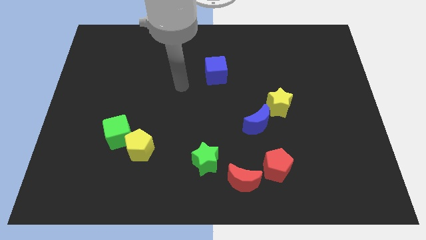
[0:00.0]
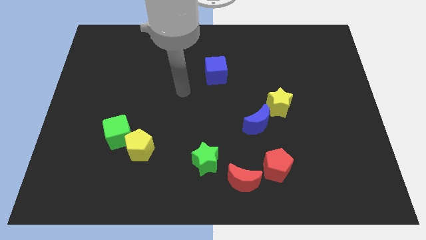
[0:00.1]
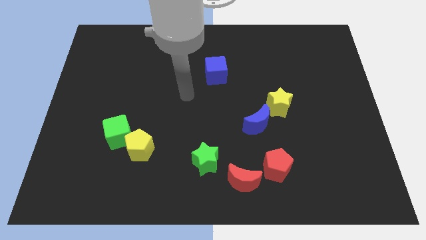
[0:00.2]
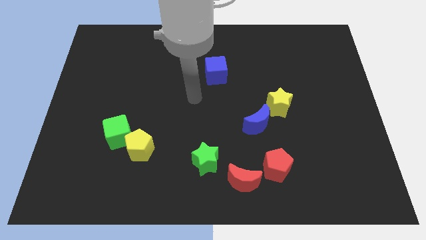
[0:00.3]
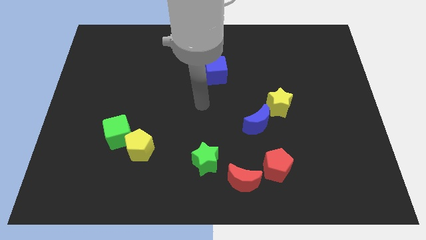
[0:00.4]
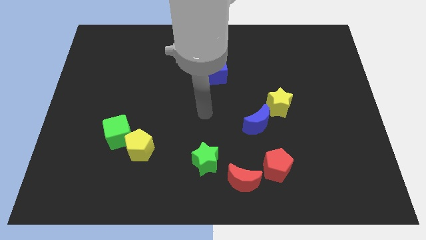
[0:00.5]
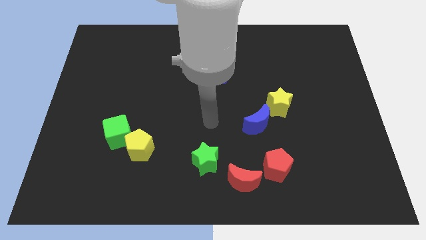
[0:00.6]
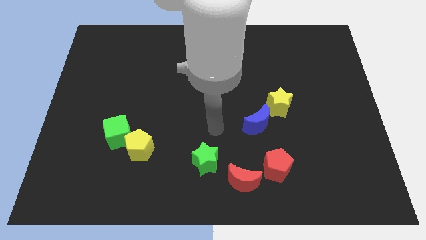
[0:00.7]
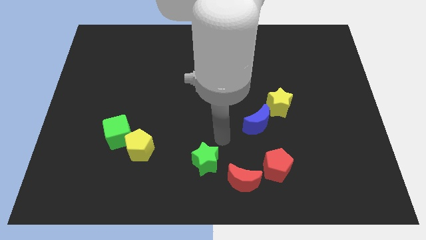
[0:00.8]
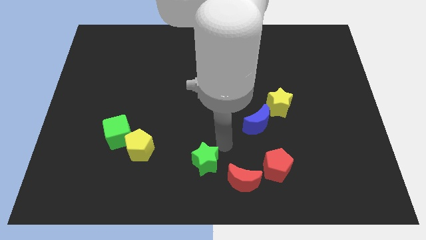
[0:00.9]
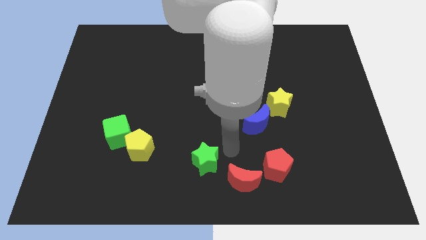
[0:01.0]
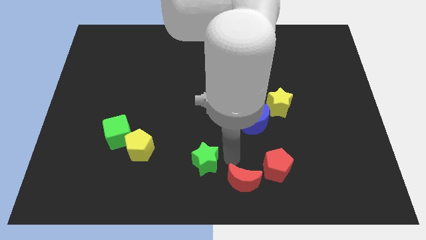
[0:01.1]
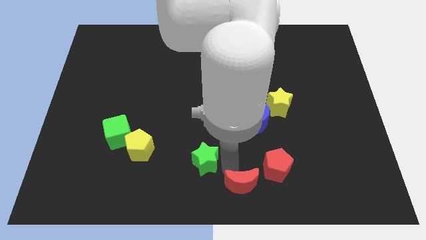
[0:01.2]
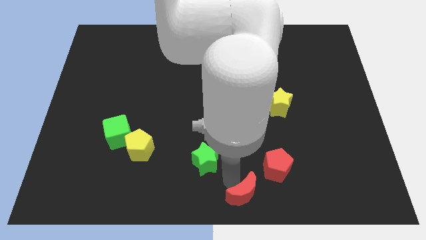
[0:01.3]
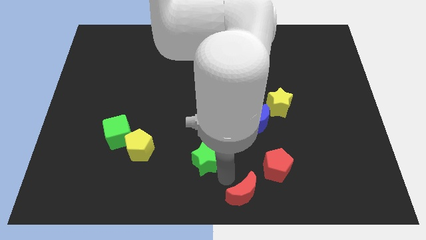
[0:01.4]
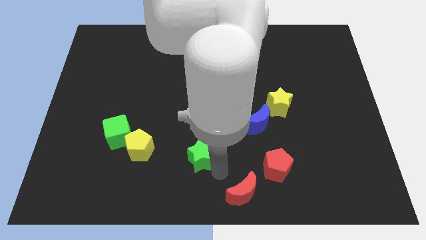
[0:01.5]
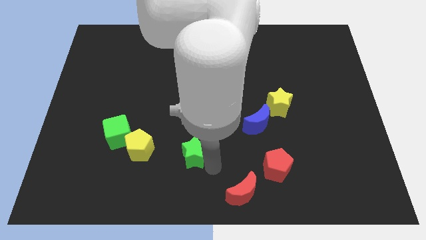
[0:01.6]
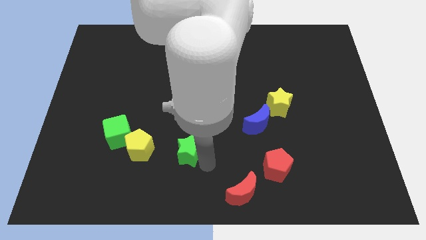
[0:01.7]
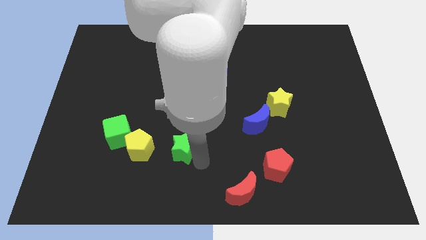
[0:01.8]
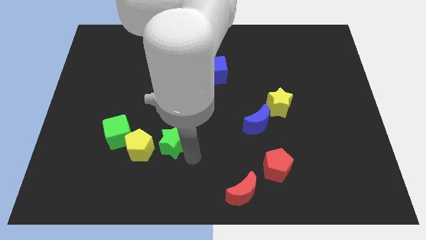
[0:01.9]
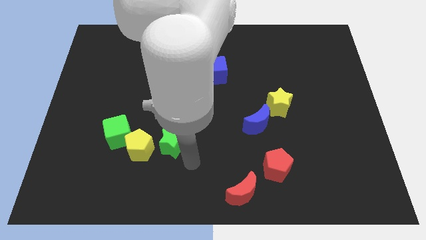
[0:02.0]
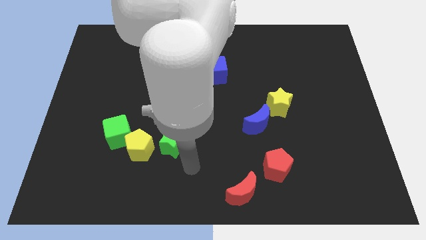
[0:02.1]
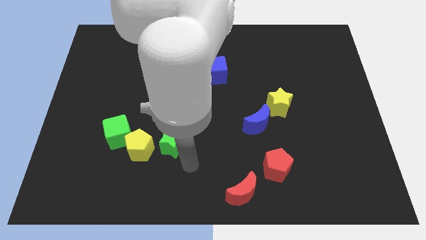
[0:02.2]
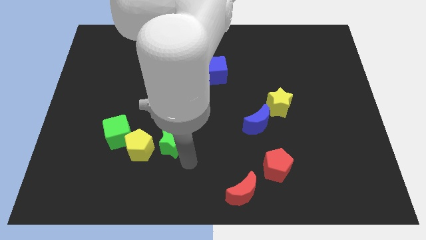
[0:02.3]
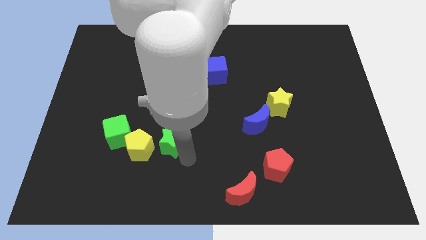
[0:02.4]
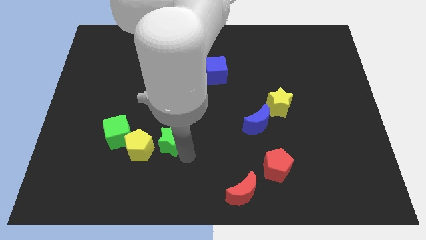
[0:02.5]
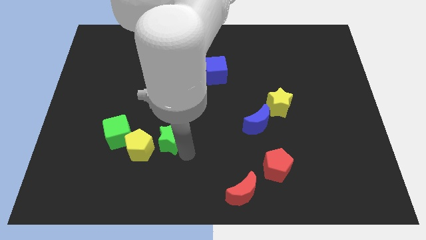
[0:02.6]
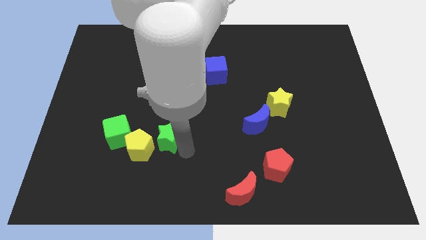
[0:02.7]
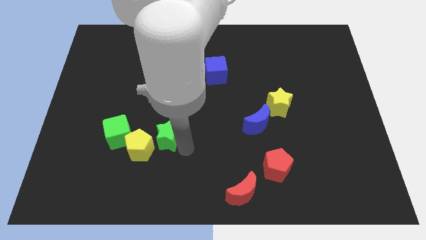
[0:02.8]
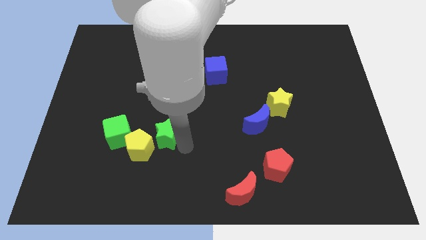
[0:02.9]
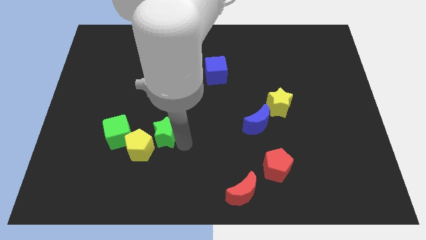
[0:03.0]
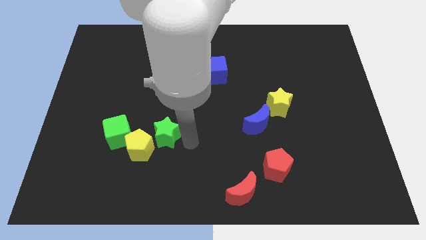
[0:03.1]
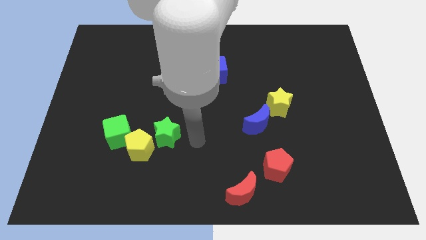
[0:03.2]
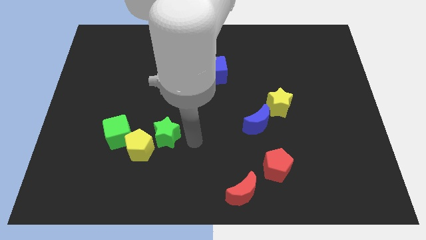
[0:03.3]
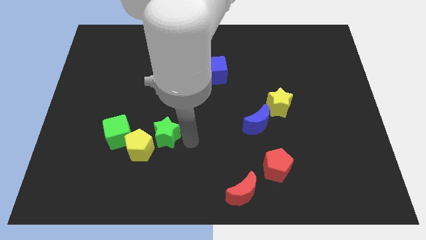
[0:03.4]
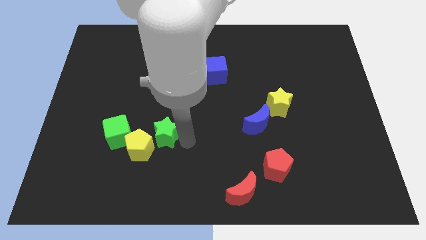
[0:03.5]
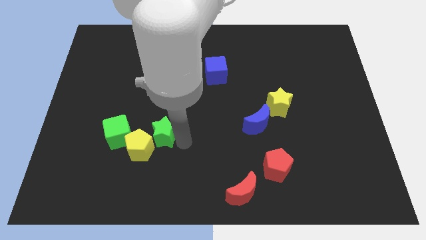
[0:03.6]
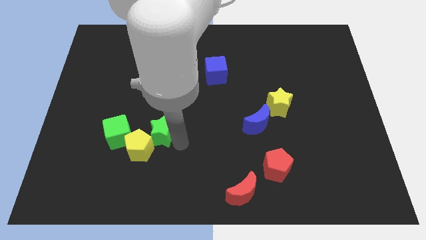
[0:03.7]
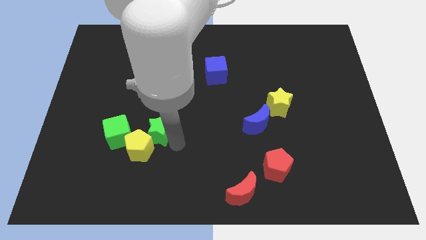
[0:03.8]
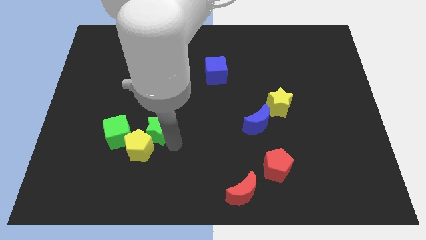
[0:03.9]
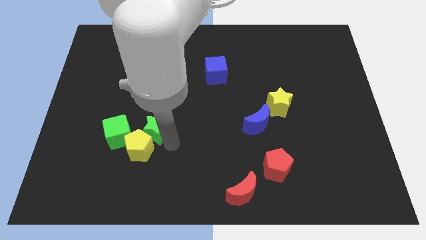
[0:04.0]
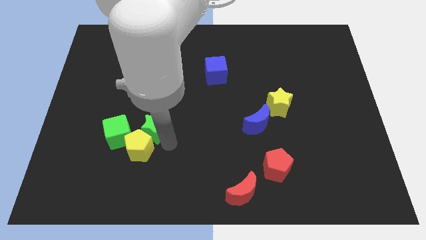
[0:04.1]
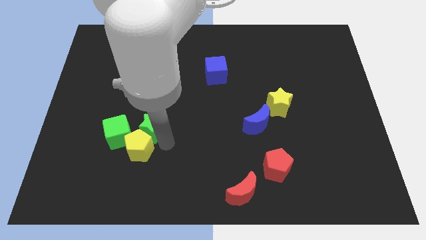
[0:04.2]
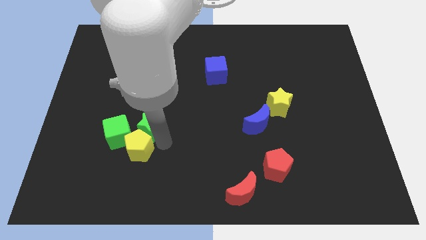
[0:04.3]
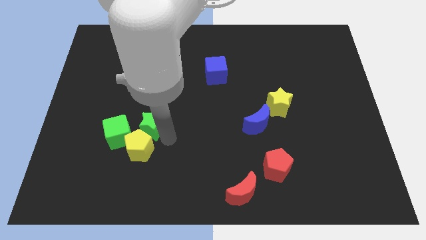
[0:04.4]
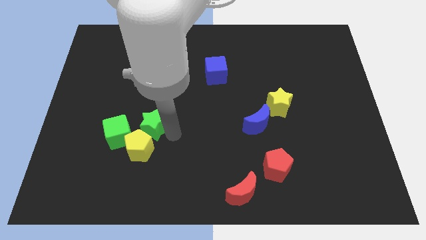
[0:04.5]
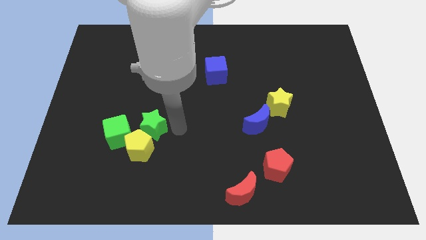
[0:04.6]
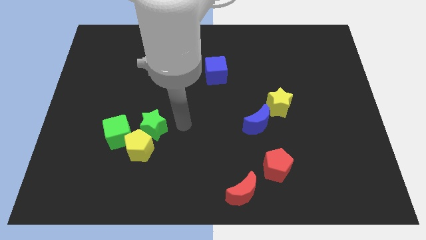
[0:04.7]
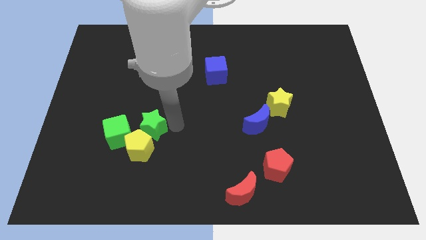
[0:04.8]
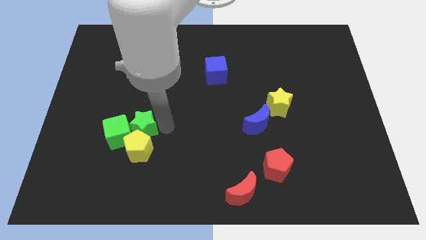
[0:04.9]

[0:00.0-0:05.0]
move the green star to the green cube

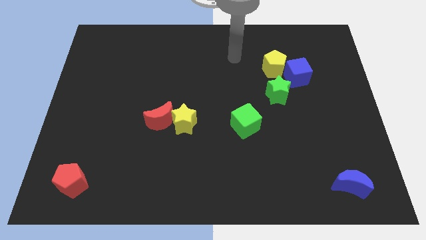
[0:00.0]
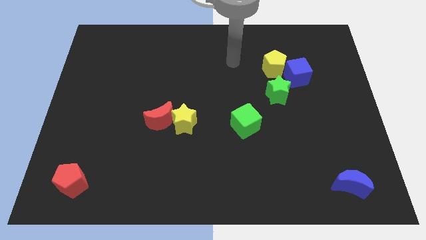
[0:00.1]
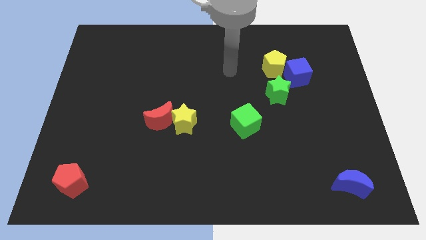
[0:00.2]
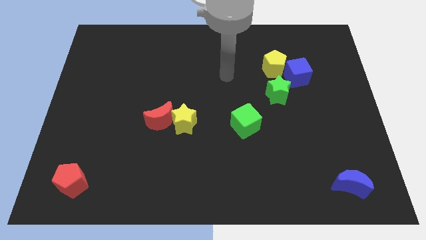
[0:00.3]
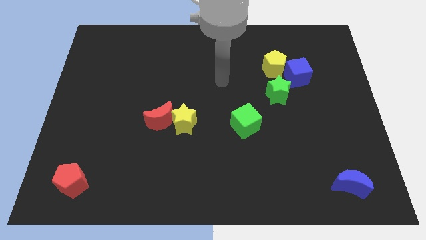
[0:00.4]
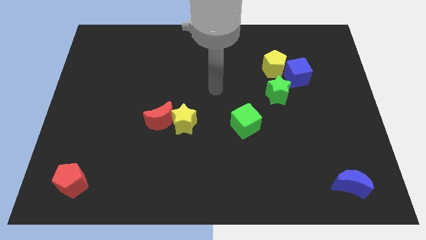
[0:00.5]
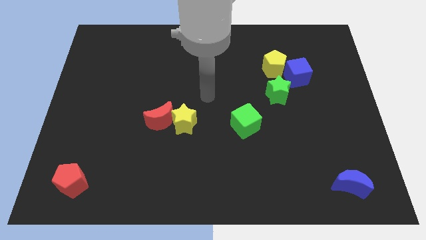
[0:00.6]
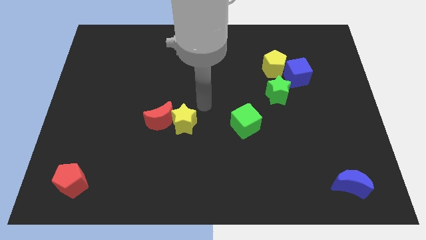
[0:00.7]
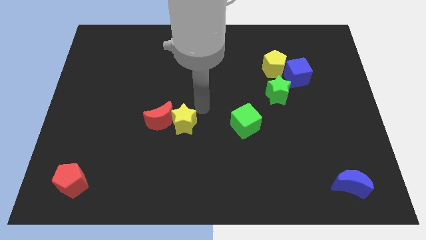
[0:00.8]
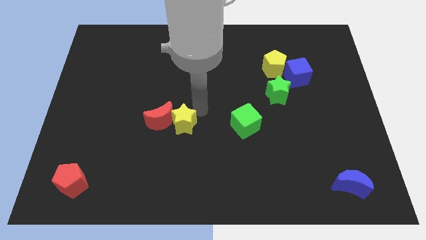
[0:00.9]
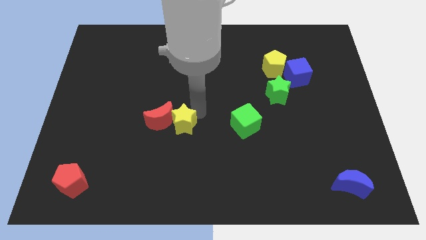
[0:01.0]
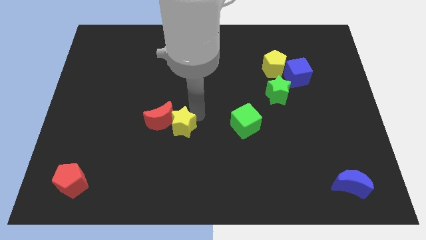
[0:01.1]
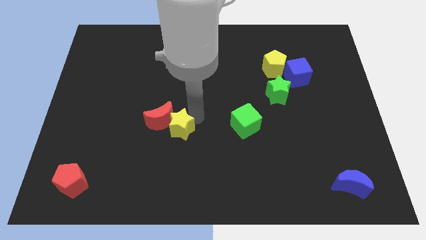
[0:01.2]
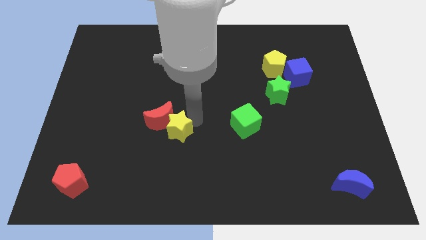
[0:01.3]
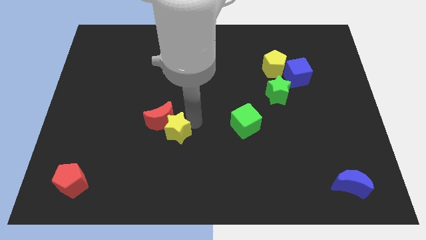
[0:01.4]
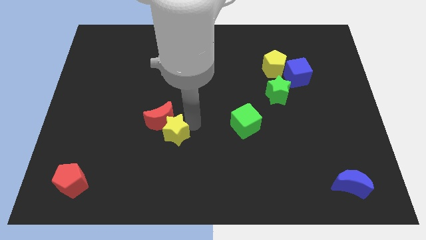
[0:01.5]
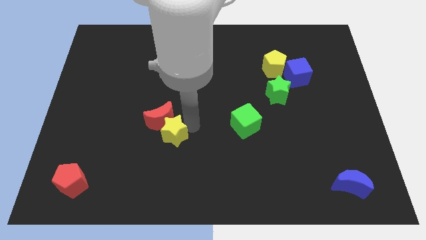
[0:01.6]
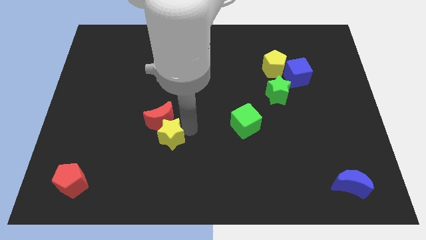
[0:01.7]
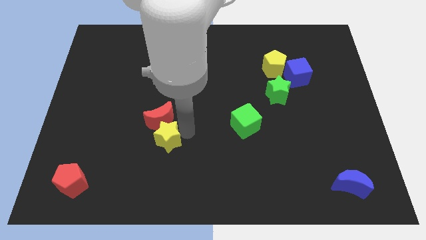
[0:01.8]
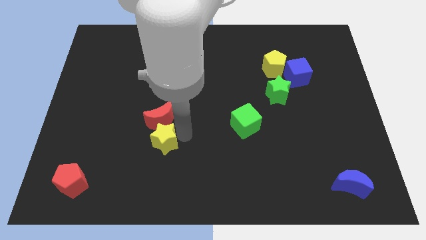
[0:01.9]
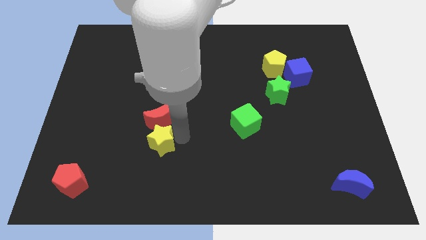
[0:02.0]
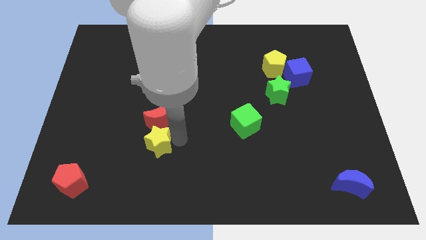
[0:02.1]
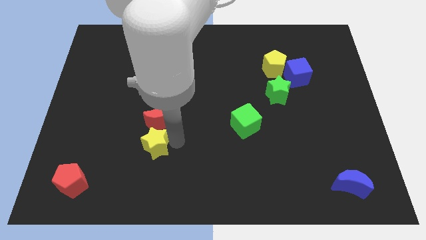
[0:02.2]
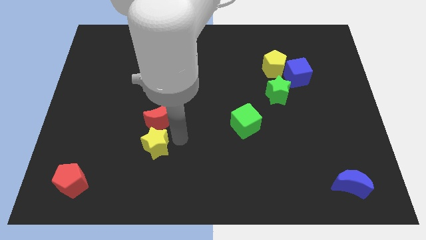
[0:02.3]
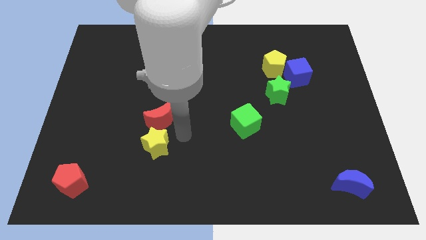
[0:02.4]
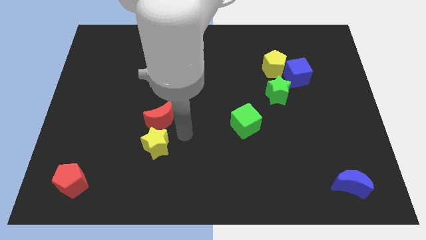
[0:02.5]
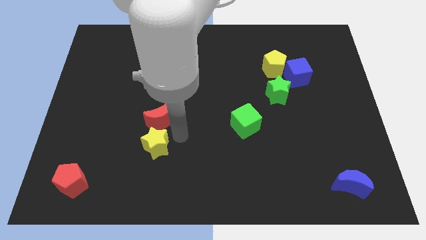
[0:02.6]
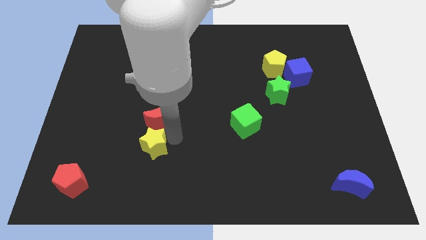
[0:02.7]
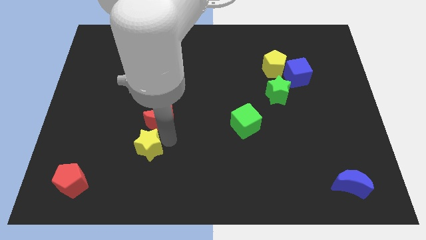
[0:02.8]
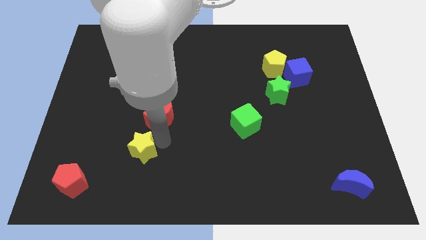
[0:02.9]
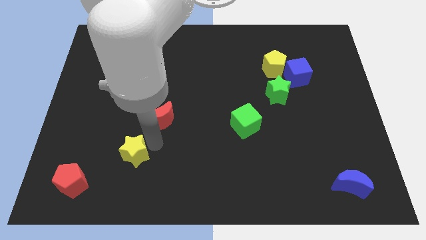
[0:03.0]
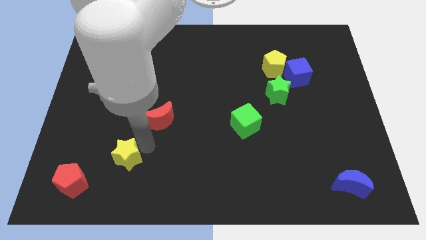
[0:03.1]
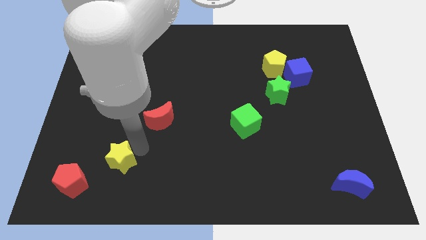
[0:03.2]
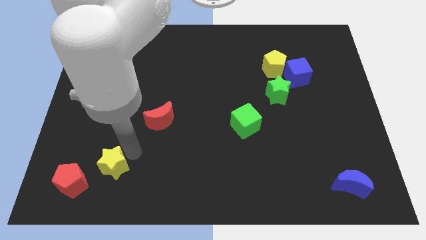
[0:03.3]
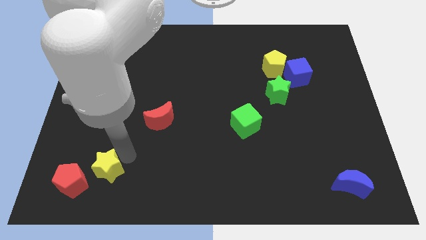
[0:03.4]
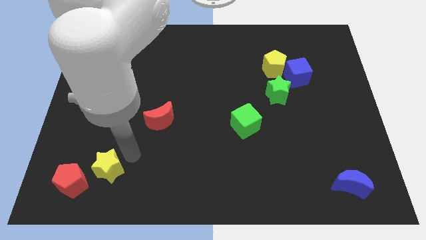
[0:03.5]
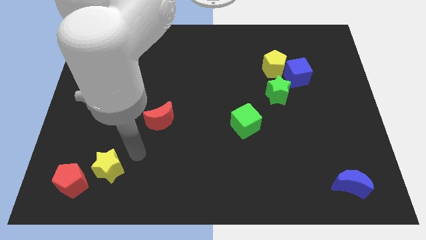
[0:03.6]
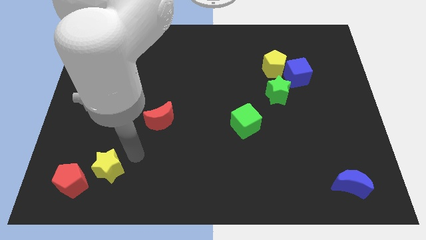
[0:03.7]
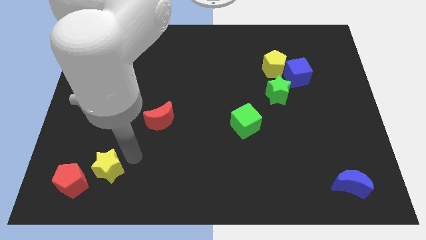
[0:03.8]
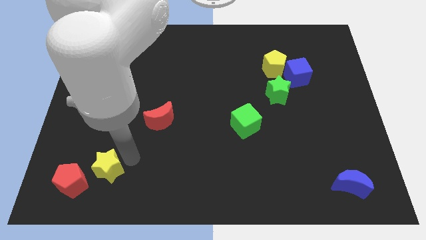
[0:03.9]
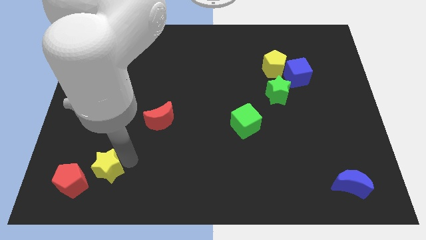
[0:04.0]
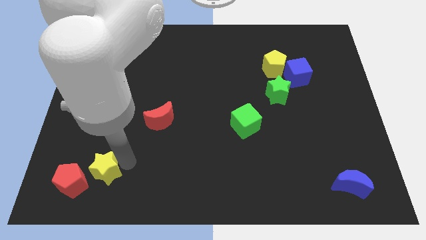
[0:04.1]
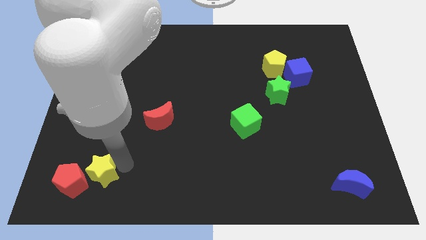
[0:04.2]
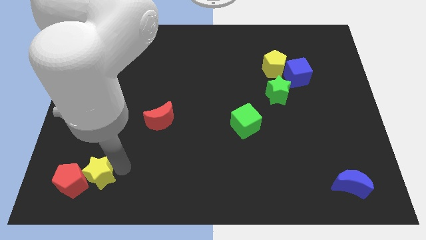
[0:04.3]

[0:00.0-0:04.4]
move the yellow star to the red pentagon
